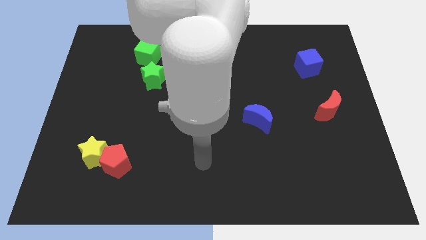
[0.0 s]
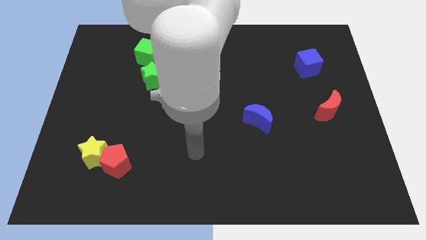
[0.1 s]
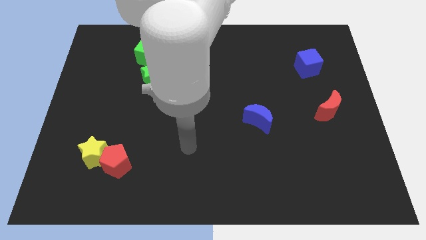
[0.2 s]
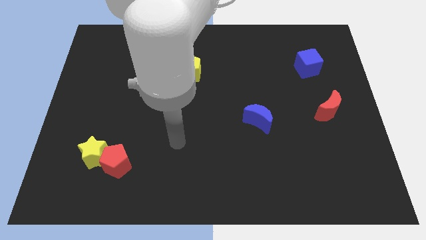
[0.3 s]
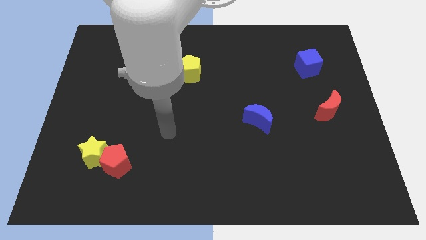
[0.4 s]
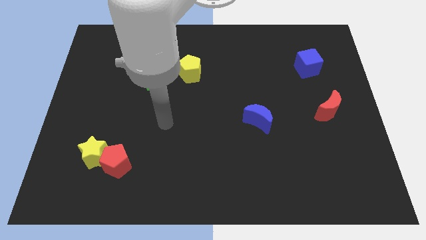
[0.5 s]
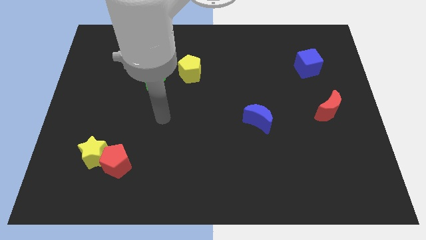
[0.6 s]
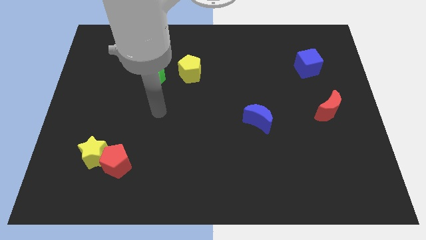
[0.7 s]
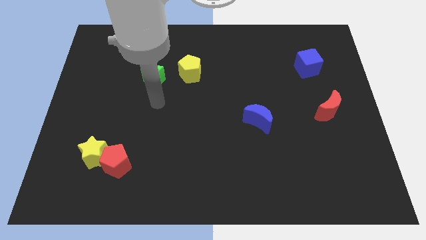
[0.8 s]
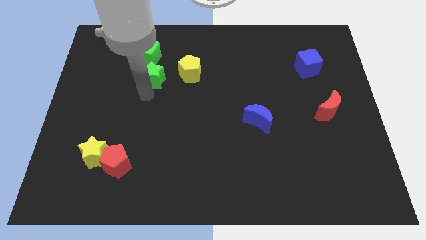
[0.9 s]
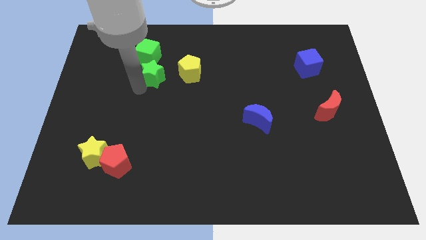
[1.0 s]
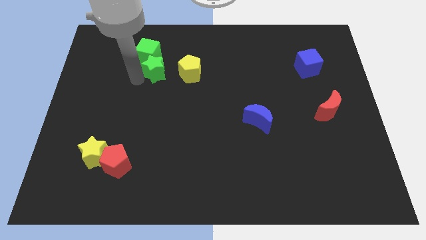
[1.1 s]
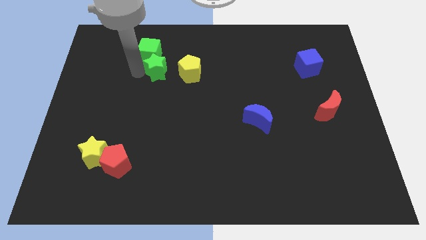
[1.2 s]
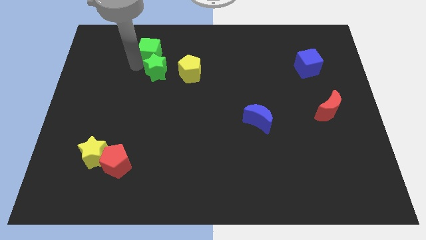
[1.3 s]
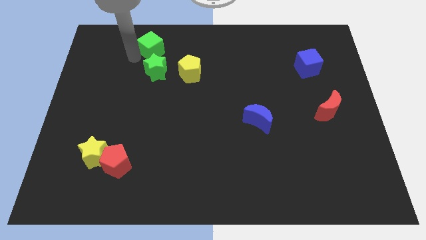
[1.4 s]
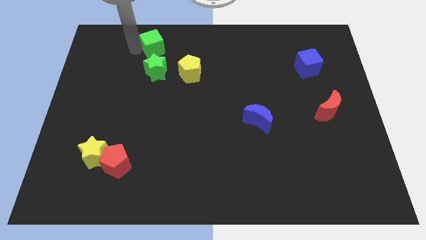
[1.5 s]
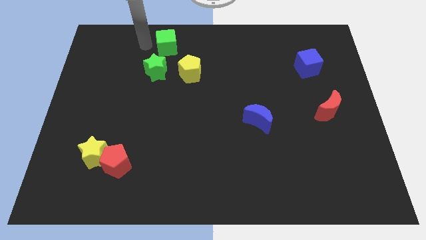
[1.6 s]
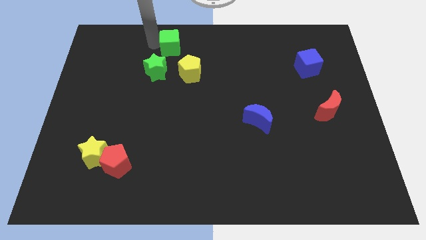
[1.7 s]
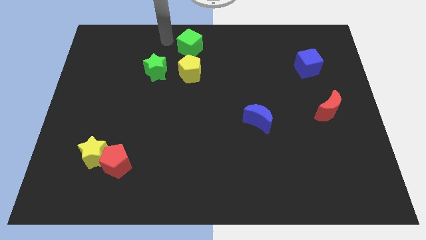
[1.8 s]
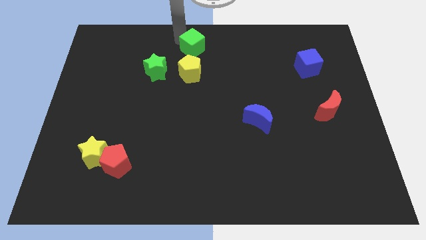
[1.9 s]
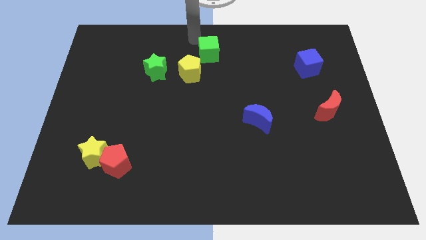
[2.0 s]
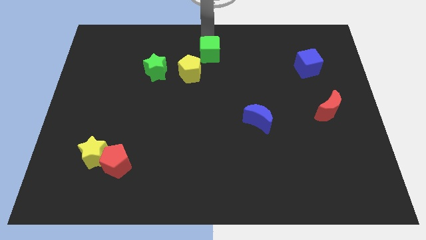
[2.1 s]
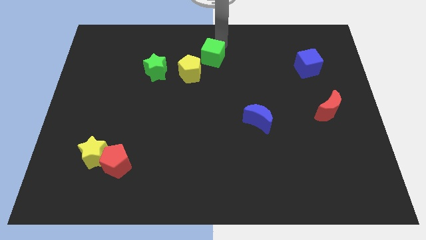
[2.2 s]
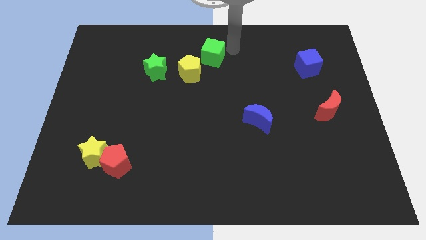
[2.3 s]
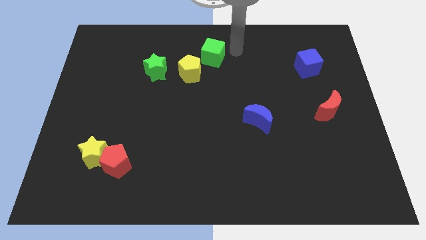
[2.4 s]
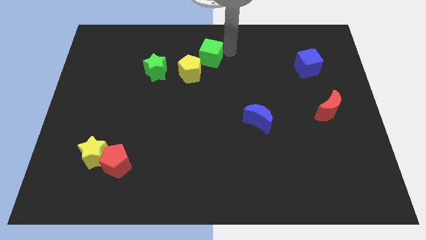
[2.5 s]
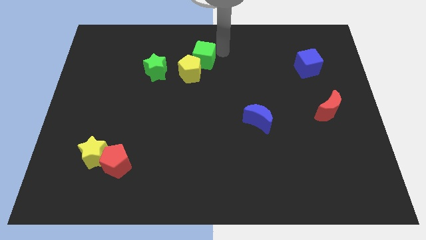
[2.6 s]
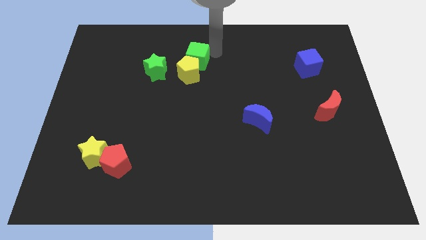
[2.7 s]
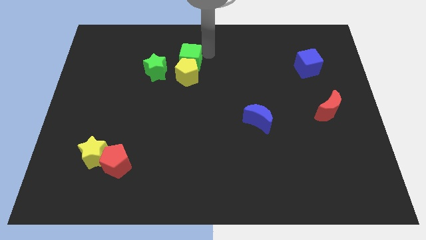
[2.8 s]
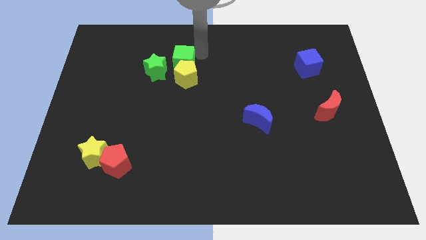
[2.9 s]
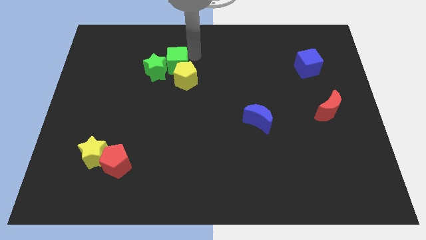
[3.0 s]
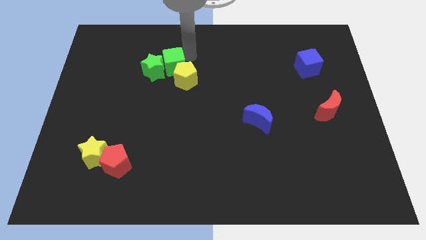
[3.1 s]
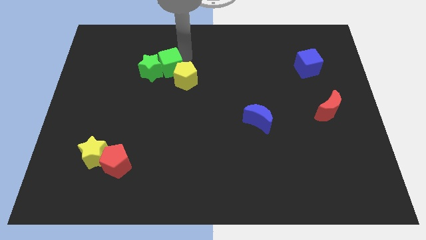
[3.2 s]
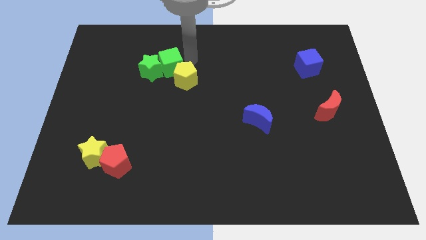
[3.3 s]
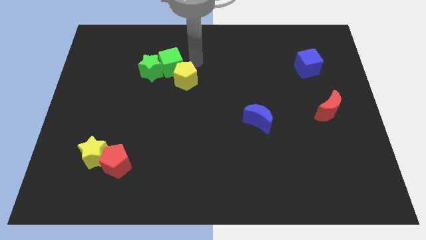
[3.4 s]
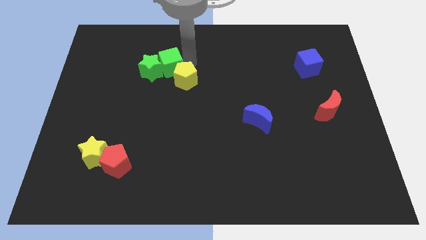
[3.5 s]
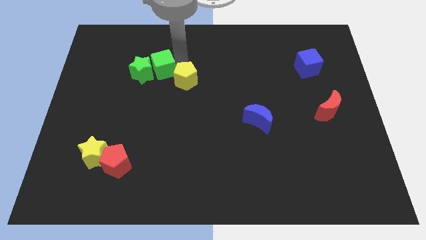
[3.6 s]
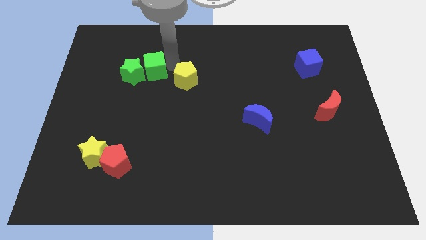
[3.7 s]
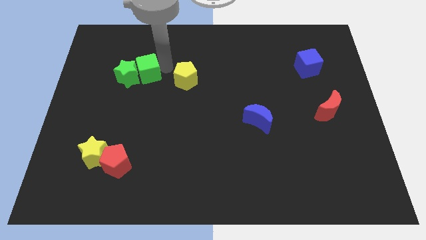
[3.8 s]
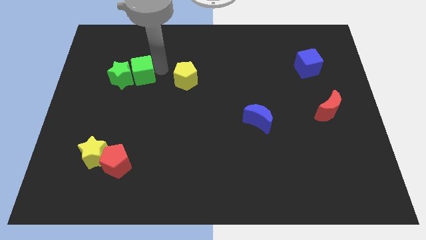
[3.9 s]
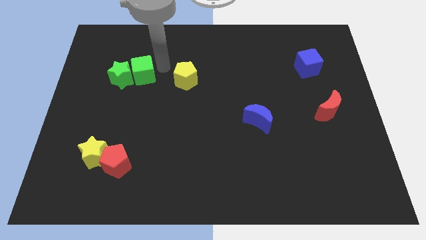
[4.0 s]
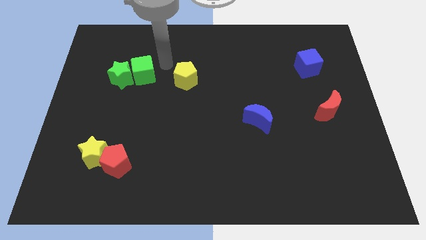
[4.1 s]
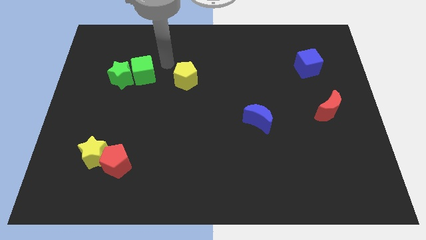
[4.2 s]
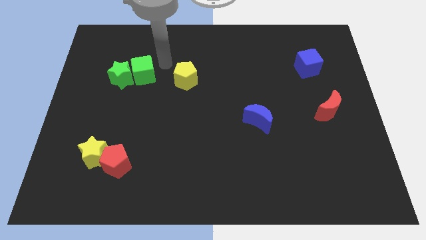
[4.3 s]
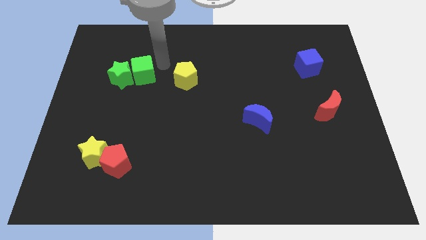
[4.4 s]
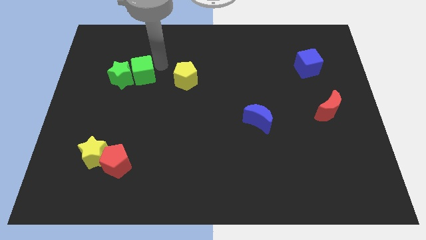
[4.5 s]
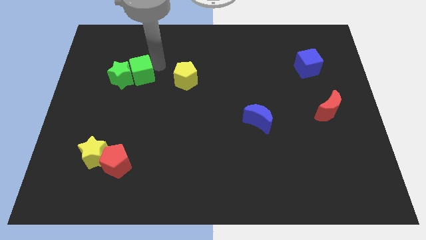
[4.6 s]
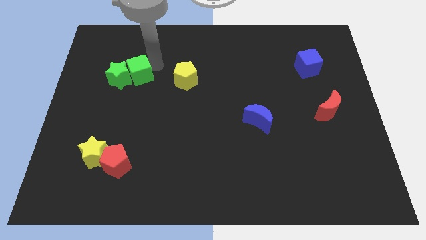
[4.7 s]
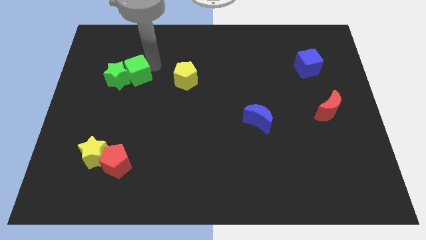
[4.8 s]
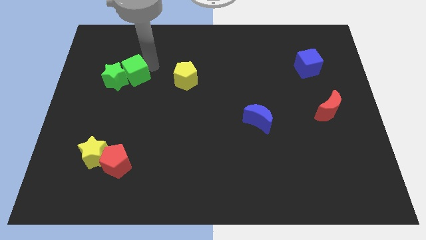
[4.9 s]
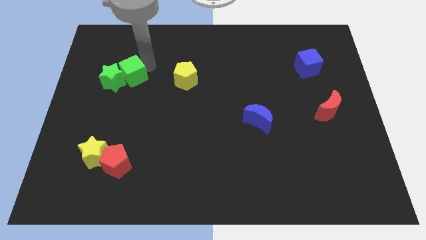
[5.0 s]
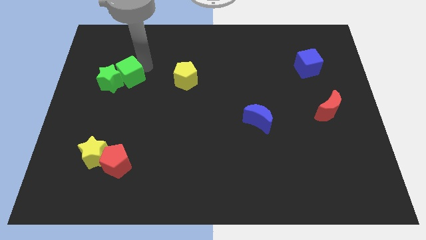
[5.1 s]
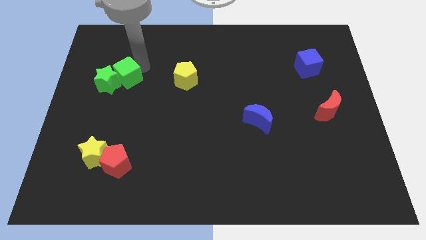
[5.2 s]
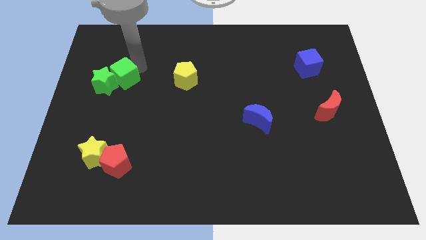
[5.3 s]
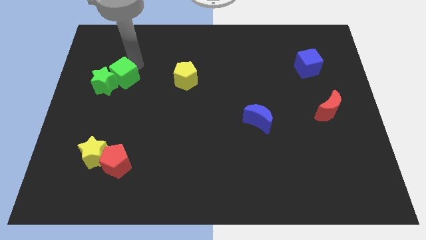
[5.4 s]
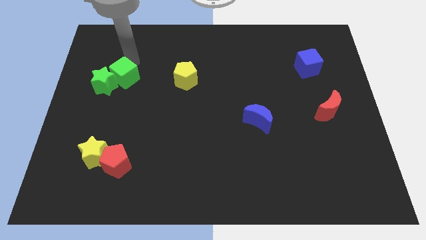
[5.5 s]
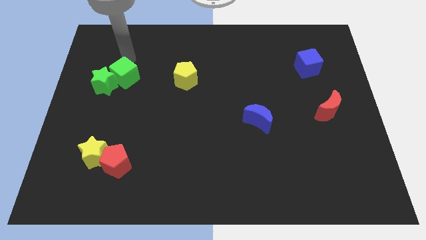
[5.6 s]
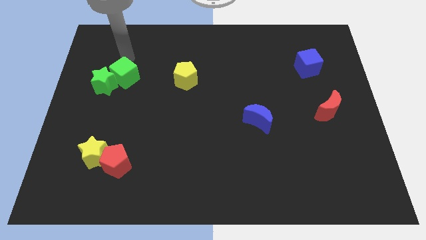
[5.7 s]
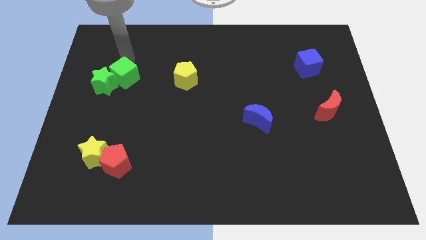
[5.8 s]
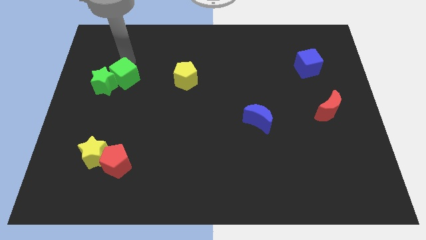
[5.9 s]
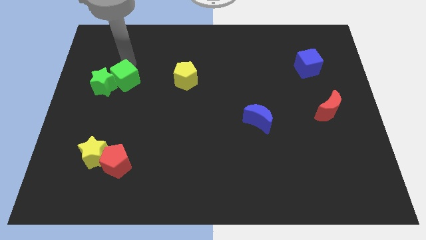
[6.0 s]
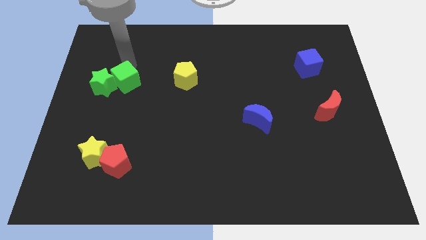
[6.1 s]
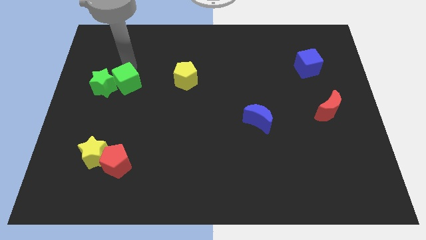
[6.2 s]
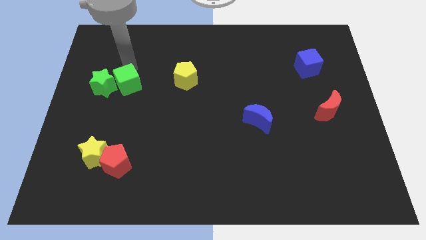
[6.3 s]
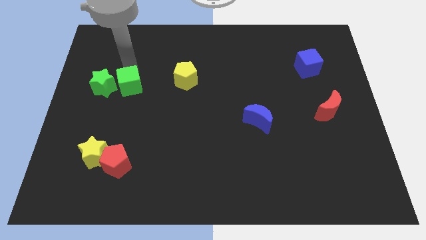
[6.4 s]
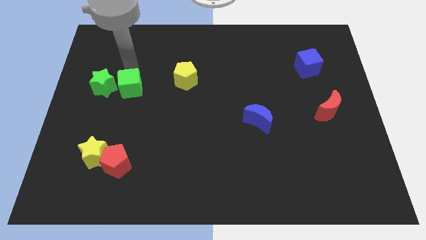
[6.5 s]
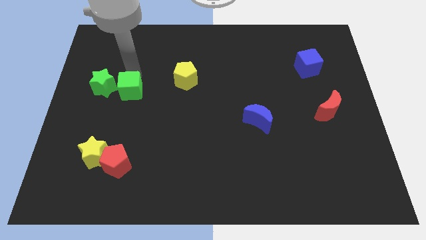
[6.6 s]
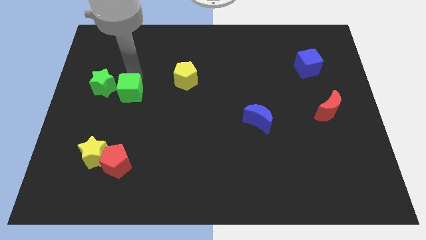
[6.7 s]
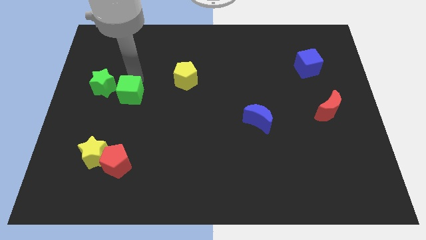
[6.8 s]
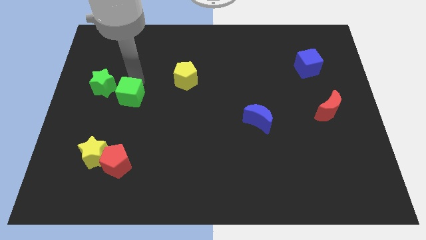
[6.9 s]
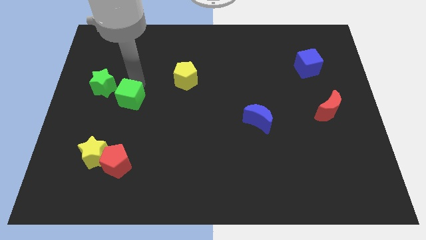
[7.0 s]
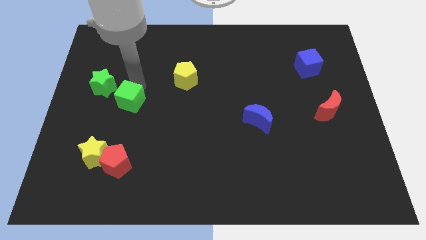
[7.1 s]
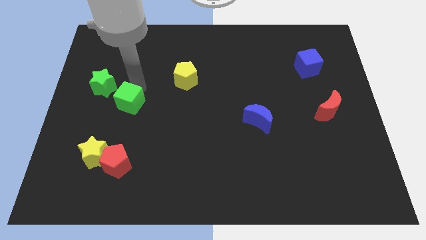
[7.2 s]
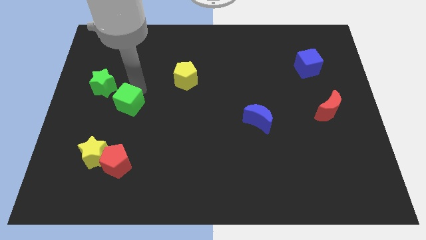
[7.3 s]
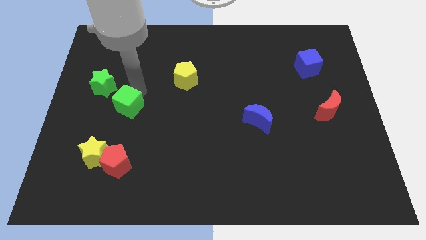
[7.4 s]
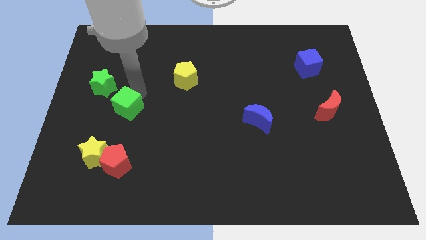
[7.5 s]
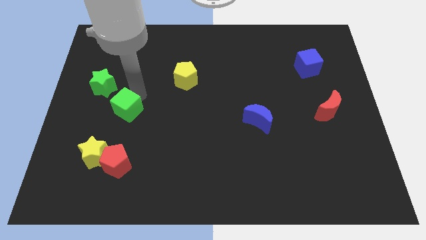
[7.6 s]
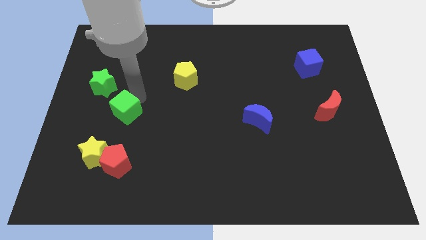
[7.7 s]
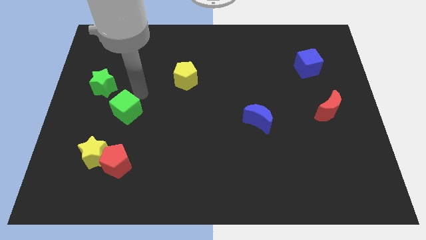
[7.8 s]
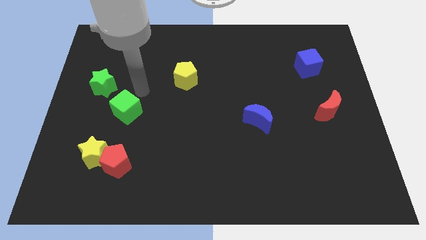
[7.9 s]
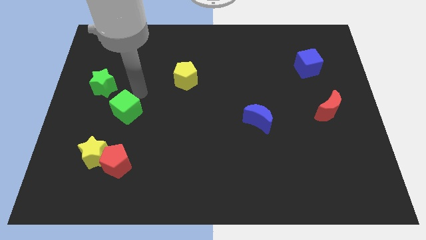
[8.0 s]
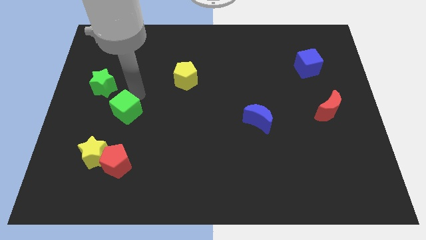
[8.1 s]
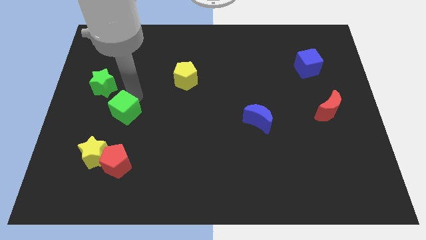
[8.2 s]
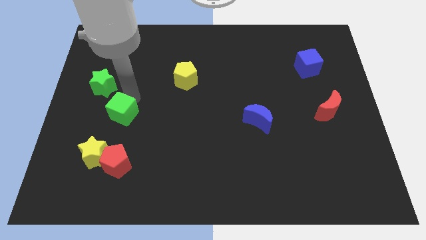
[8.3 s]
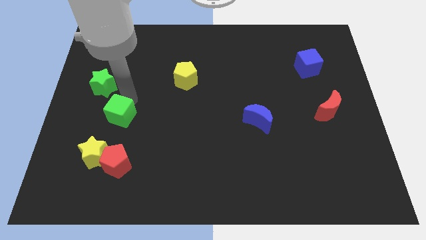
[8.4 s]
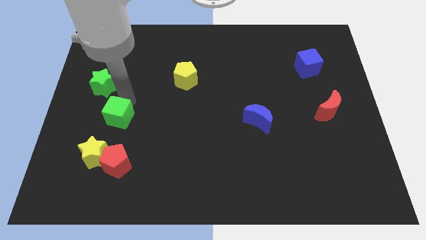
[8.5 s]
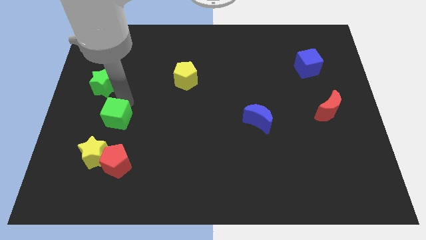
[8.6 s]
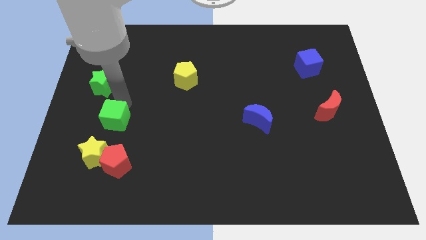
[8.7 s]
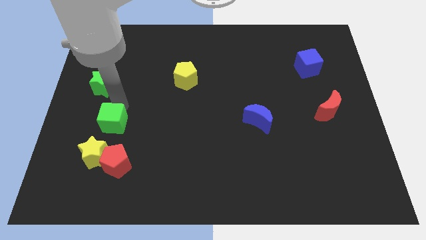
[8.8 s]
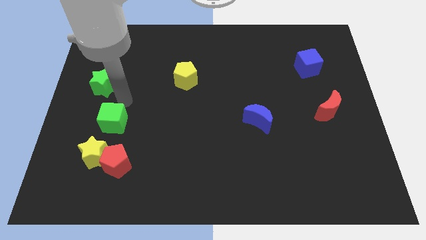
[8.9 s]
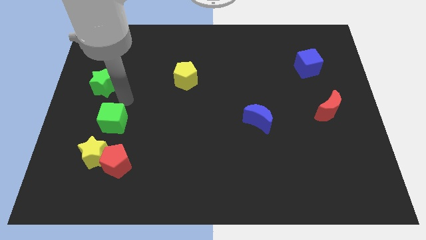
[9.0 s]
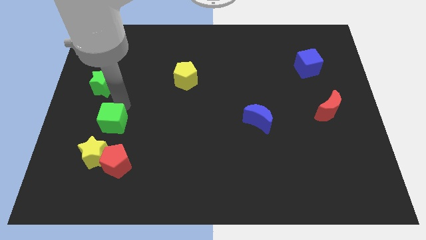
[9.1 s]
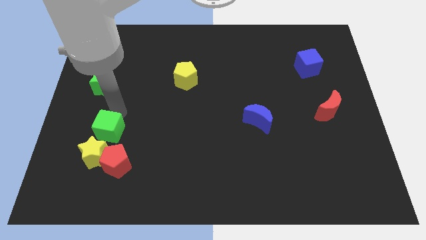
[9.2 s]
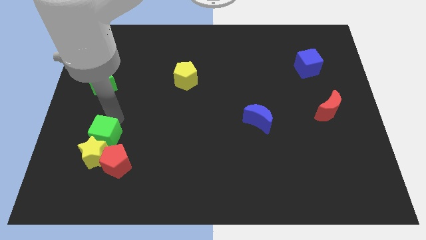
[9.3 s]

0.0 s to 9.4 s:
move the green cube close to the yellow star
